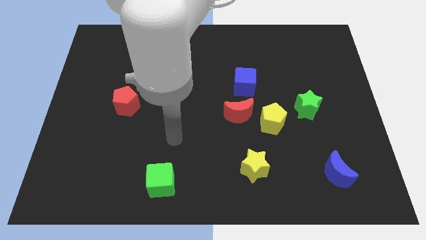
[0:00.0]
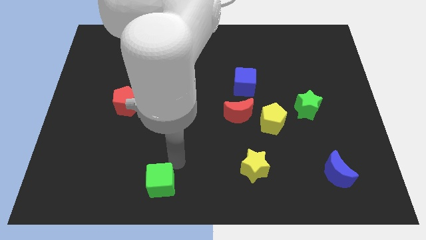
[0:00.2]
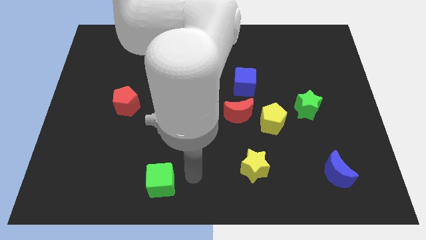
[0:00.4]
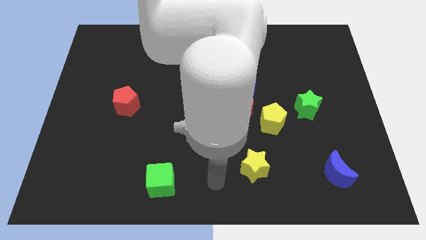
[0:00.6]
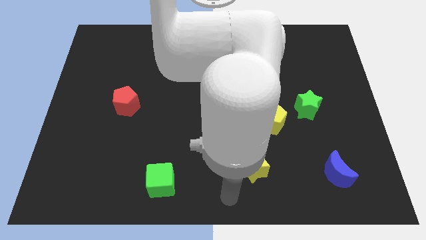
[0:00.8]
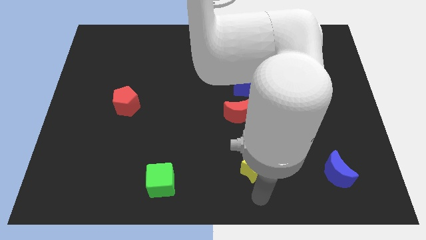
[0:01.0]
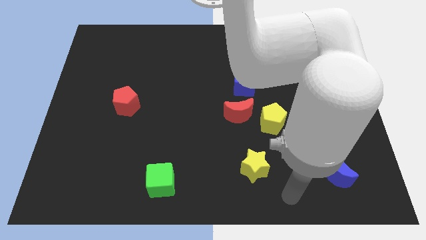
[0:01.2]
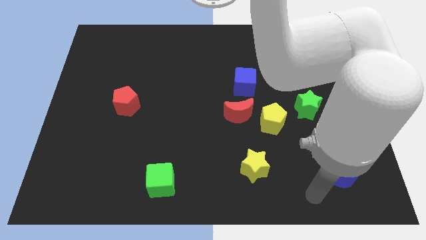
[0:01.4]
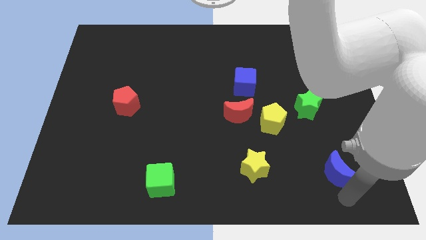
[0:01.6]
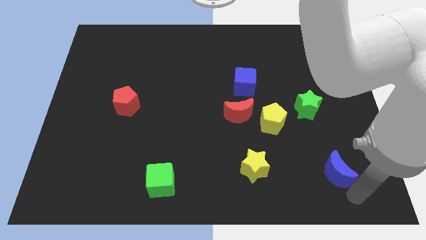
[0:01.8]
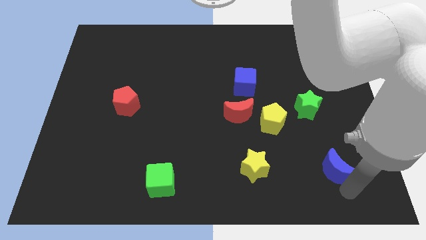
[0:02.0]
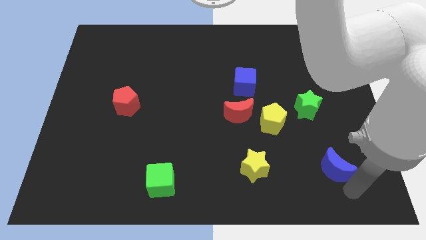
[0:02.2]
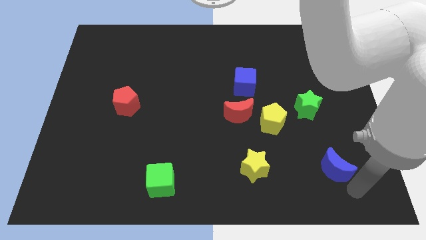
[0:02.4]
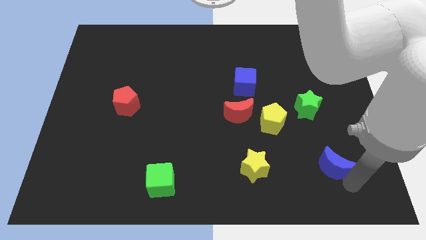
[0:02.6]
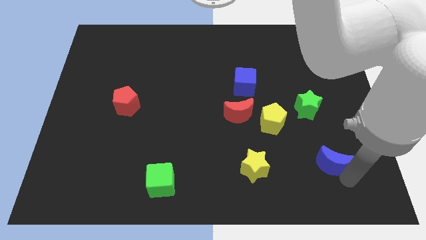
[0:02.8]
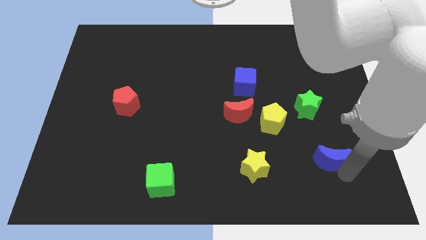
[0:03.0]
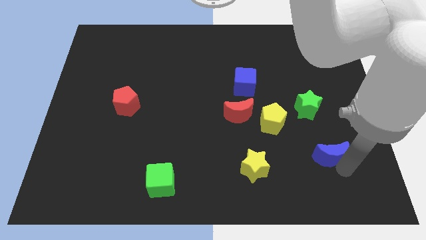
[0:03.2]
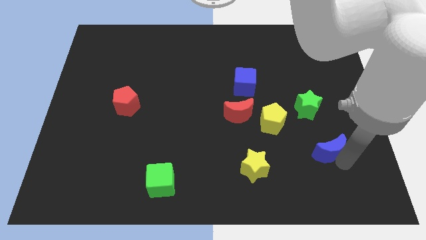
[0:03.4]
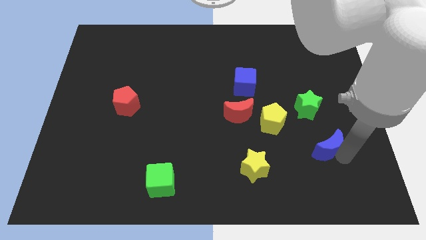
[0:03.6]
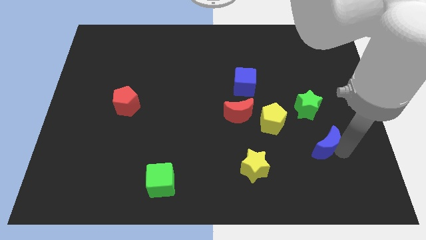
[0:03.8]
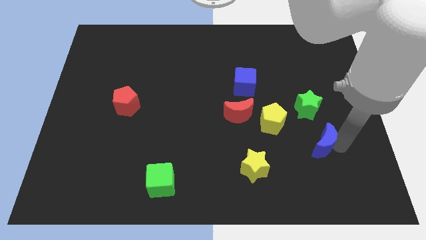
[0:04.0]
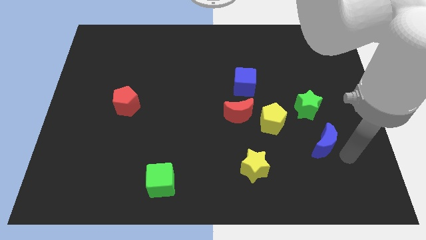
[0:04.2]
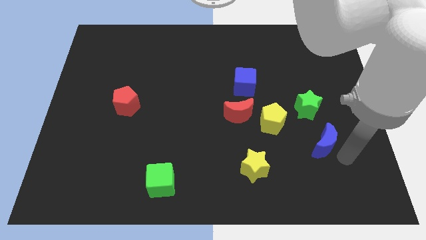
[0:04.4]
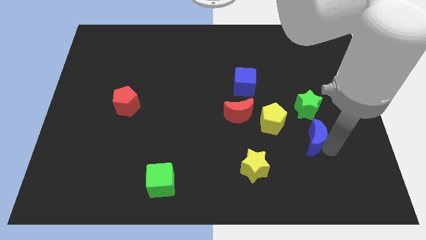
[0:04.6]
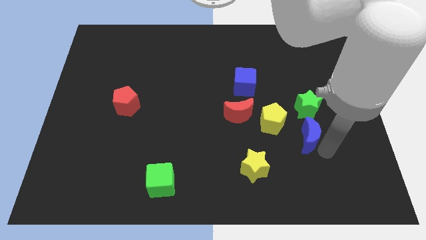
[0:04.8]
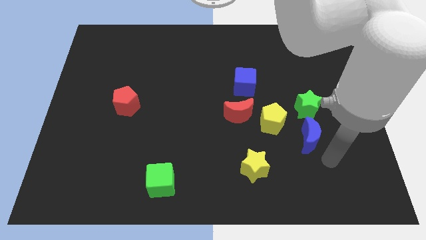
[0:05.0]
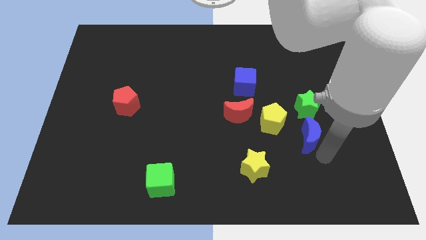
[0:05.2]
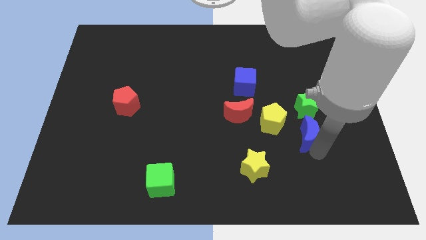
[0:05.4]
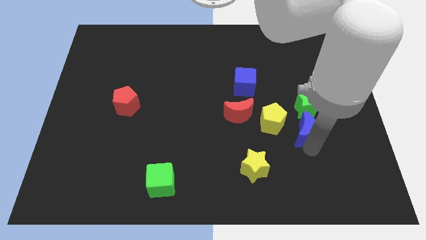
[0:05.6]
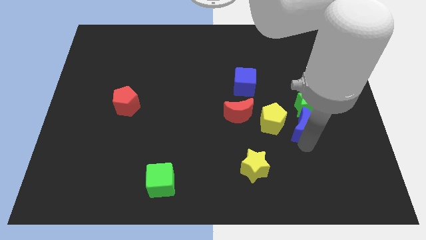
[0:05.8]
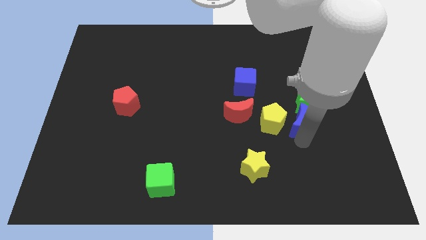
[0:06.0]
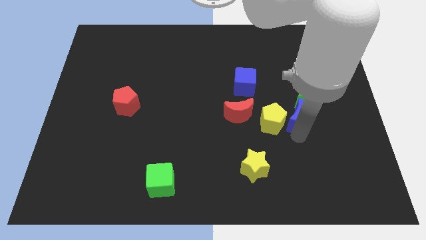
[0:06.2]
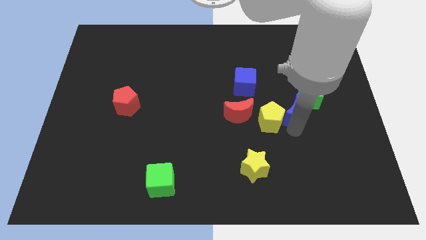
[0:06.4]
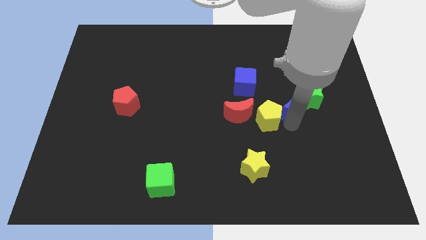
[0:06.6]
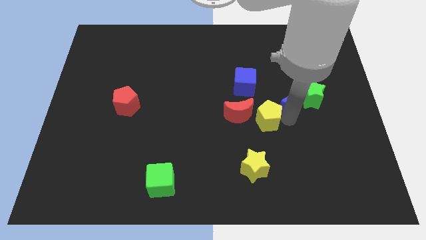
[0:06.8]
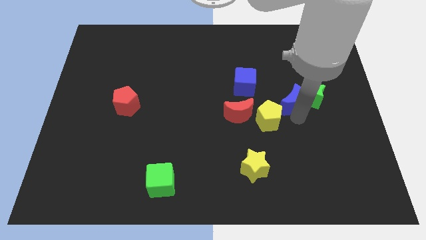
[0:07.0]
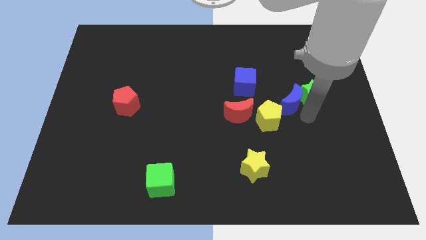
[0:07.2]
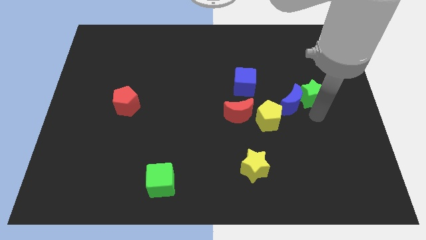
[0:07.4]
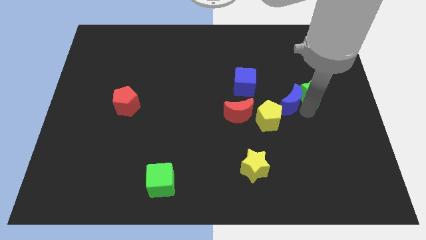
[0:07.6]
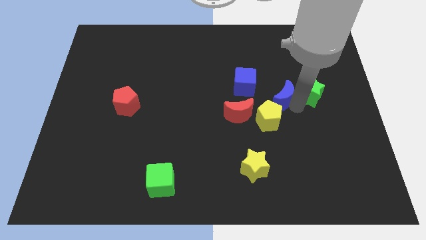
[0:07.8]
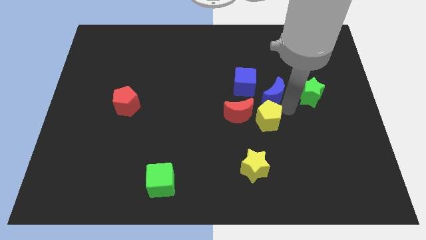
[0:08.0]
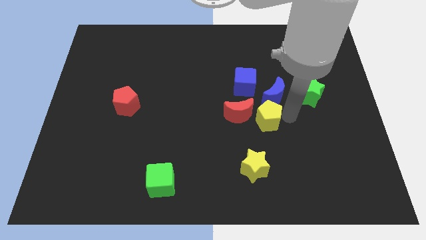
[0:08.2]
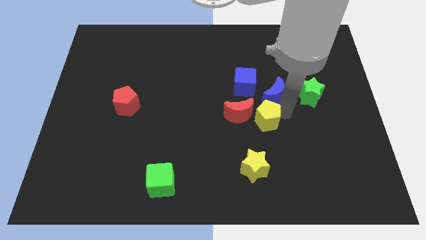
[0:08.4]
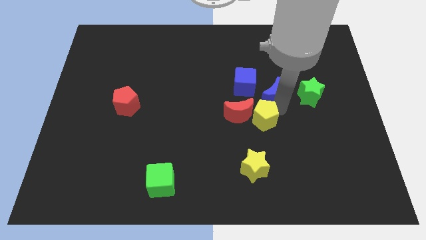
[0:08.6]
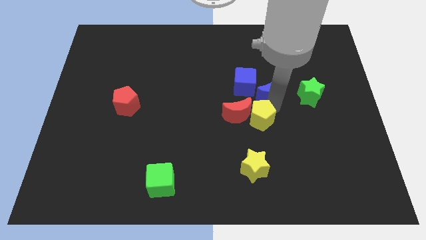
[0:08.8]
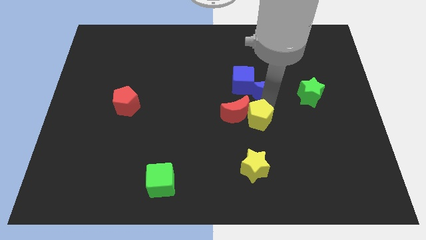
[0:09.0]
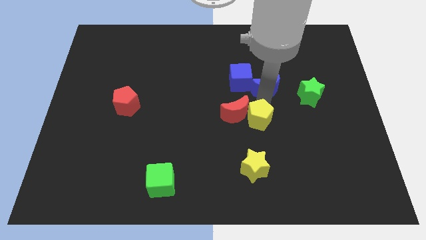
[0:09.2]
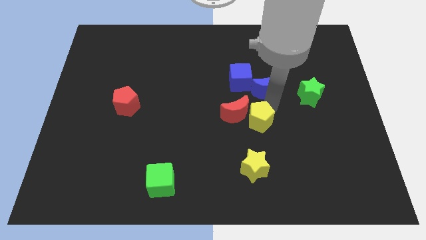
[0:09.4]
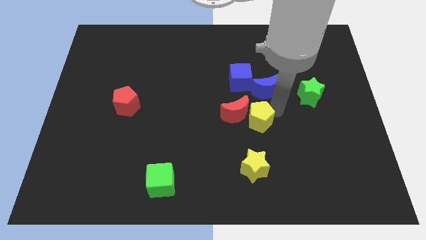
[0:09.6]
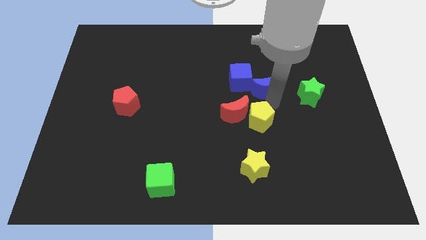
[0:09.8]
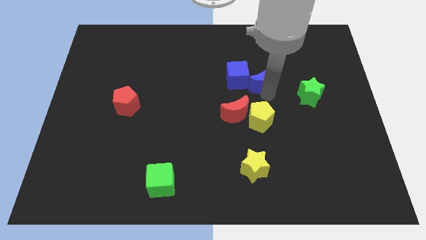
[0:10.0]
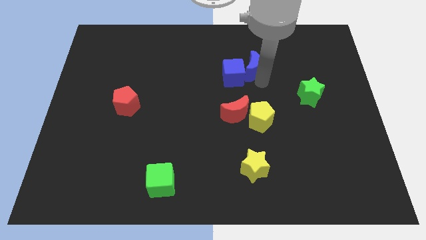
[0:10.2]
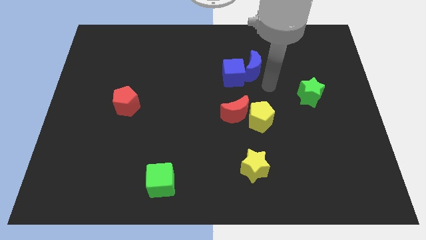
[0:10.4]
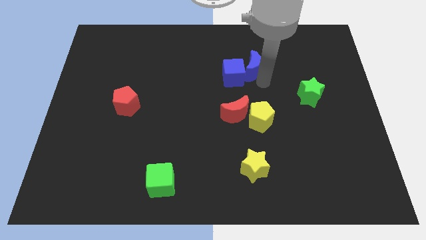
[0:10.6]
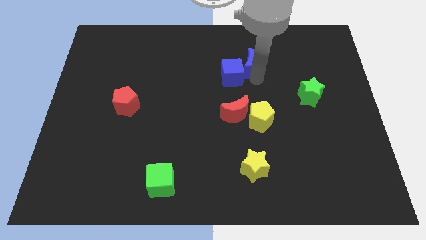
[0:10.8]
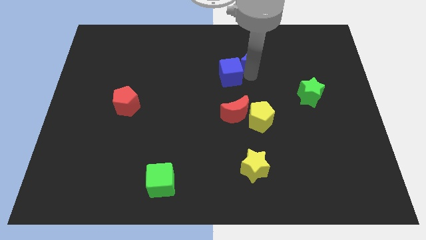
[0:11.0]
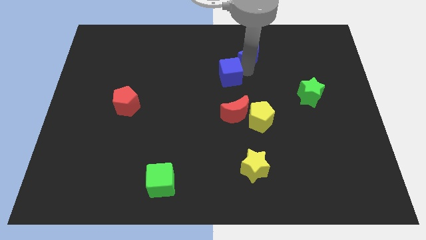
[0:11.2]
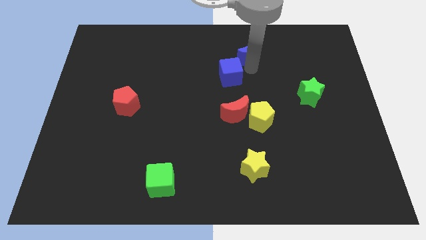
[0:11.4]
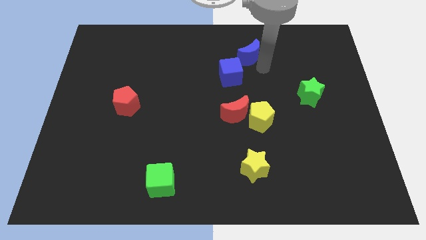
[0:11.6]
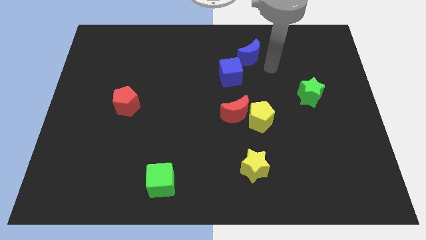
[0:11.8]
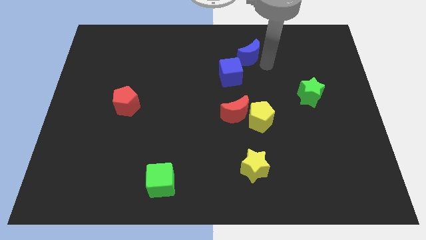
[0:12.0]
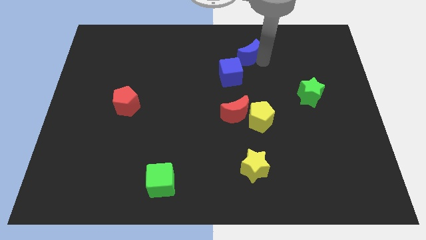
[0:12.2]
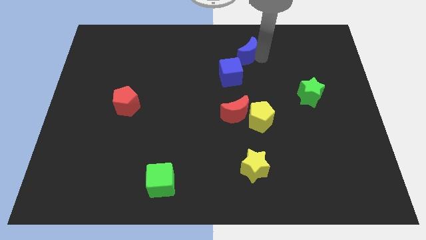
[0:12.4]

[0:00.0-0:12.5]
put the blue moon to the top of the blue cube
